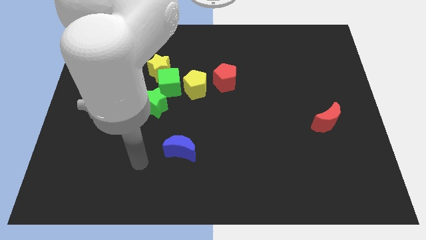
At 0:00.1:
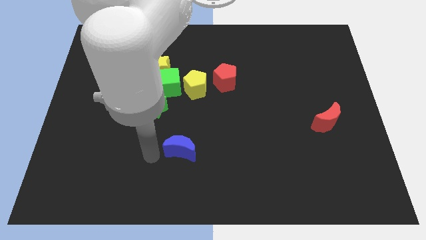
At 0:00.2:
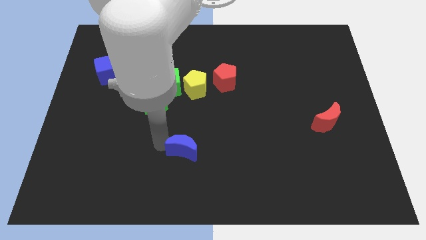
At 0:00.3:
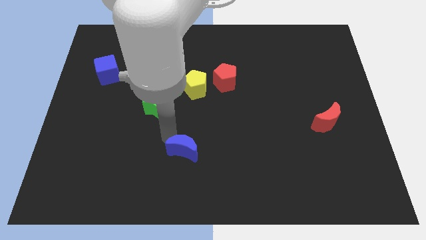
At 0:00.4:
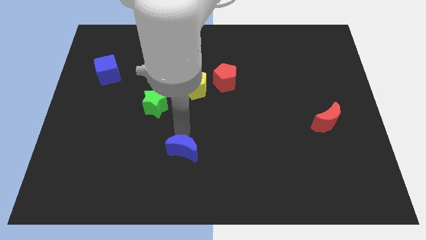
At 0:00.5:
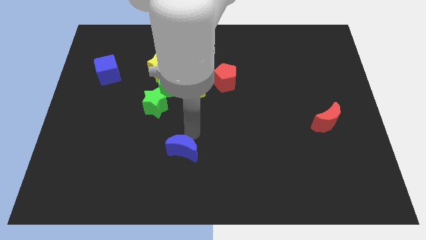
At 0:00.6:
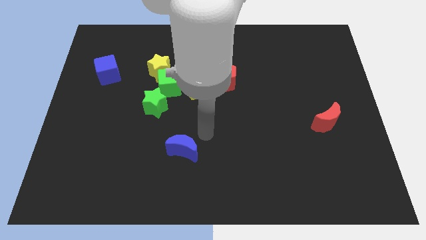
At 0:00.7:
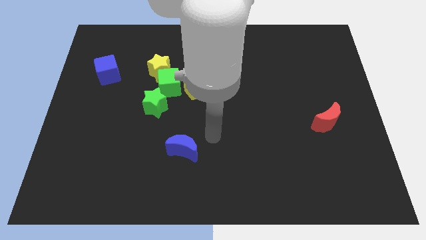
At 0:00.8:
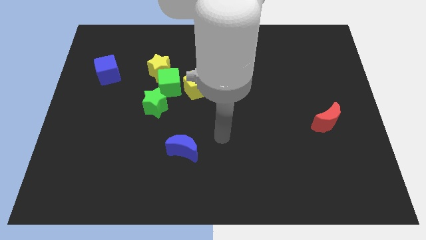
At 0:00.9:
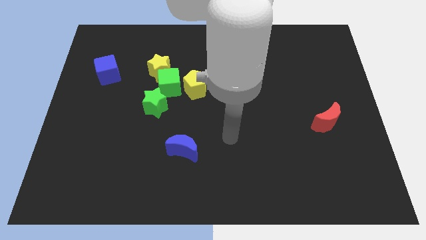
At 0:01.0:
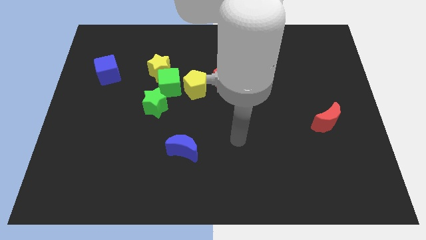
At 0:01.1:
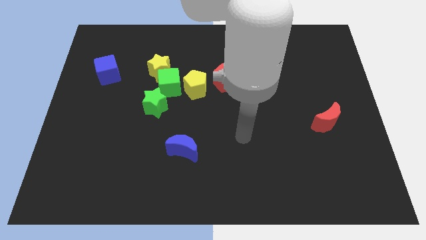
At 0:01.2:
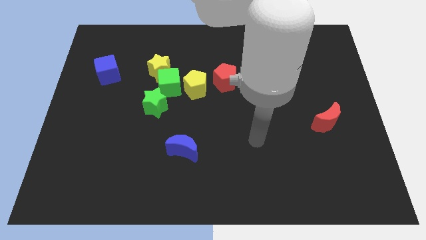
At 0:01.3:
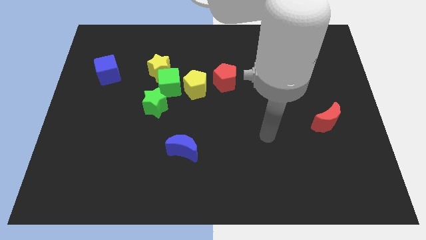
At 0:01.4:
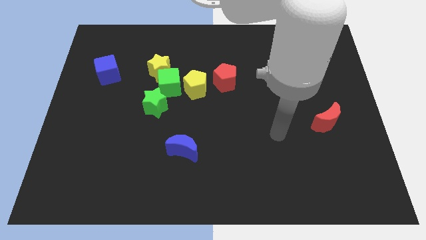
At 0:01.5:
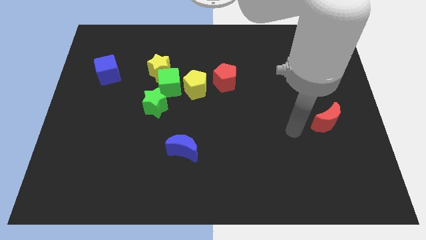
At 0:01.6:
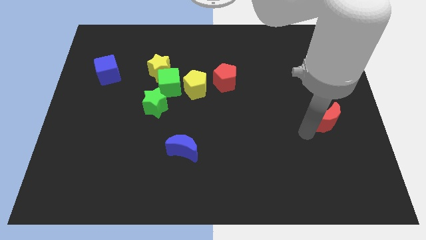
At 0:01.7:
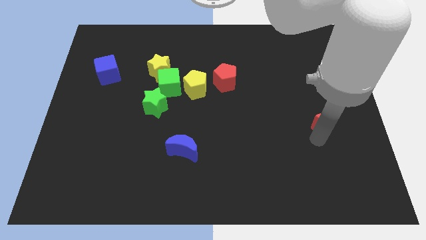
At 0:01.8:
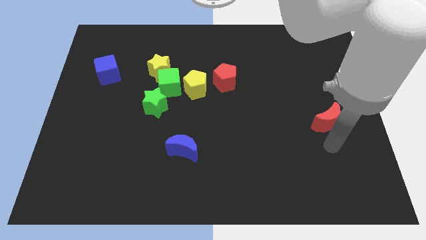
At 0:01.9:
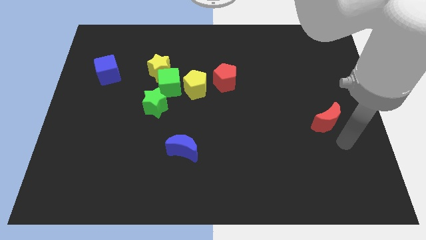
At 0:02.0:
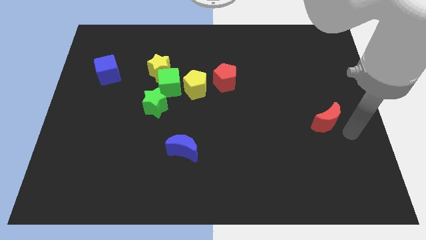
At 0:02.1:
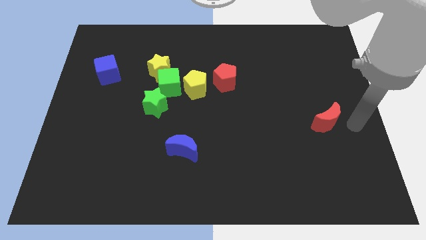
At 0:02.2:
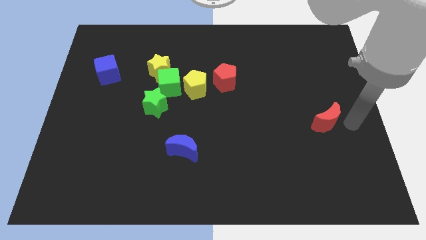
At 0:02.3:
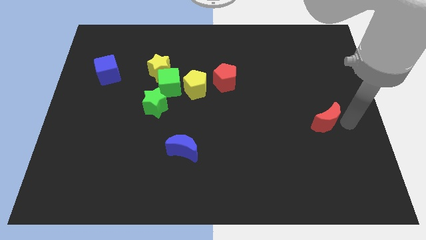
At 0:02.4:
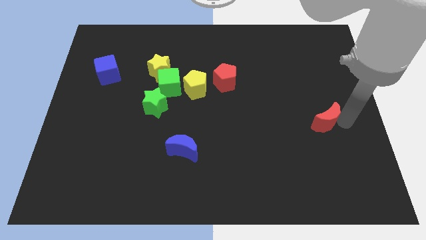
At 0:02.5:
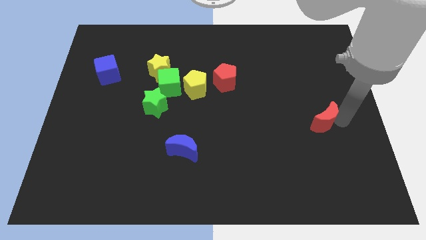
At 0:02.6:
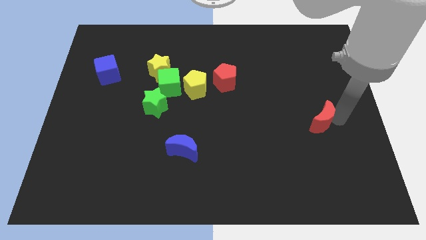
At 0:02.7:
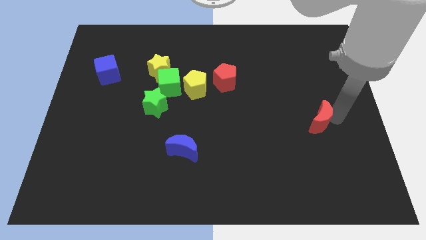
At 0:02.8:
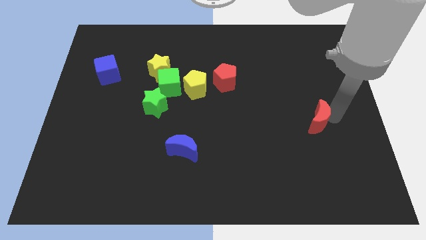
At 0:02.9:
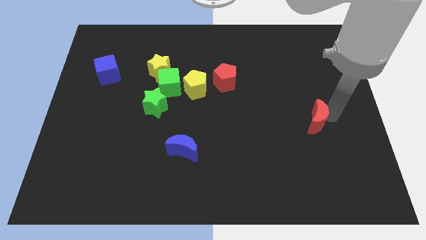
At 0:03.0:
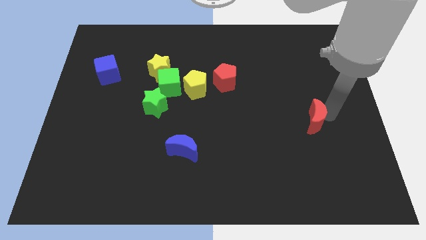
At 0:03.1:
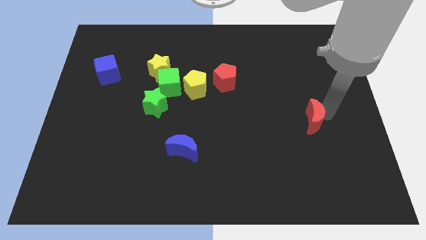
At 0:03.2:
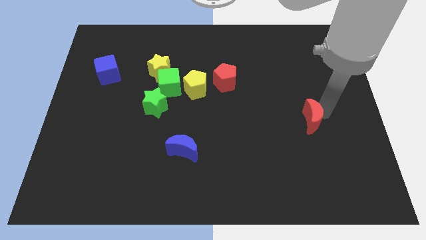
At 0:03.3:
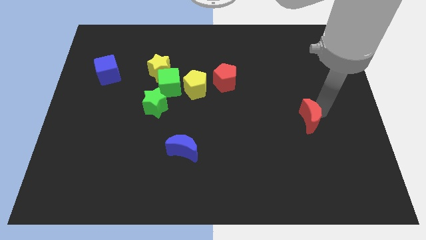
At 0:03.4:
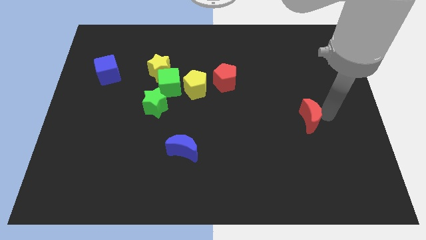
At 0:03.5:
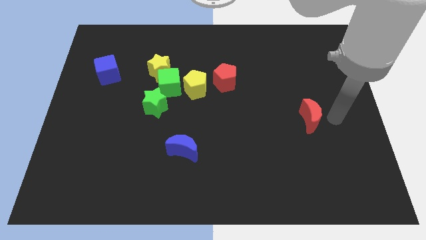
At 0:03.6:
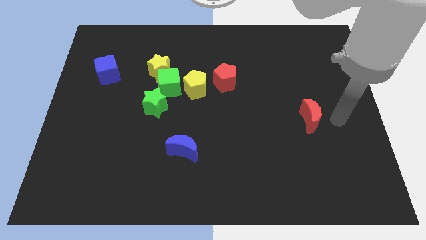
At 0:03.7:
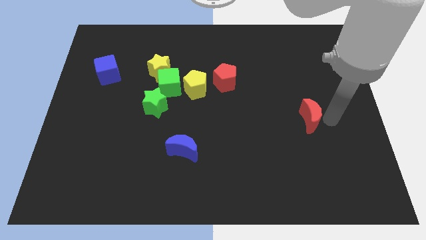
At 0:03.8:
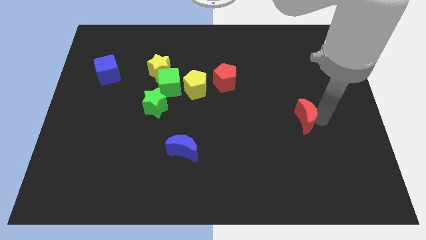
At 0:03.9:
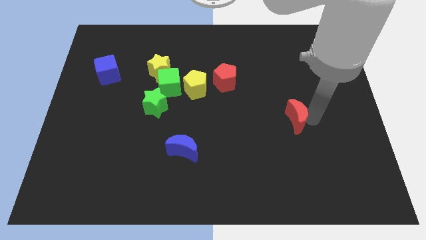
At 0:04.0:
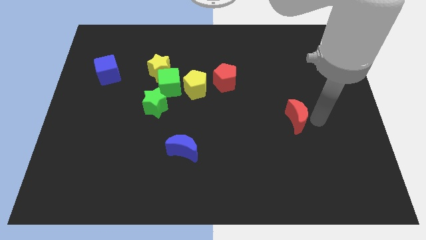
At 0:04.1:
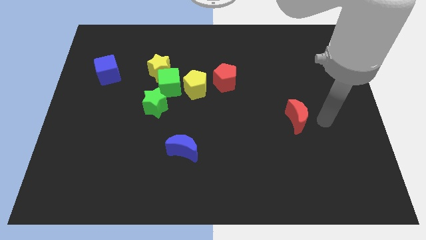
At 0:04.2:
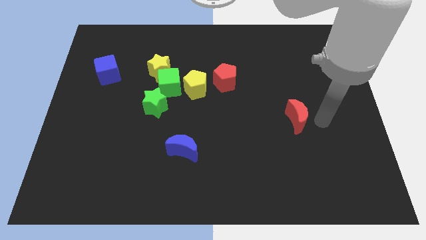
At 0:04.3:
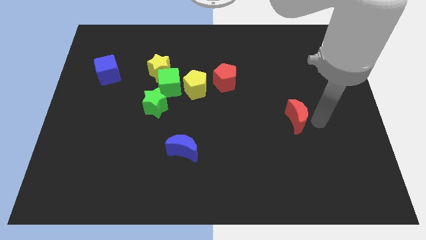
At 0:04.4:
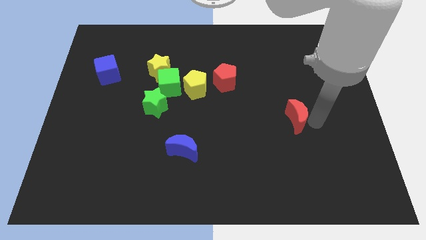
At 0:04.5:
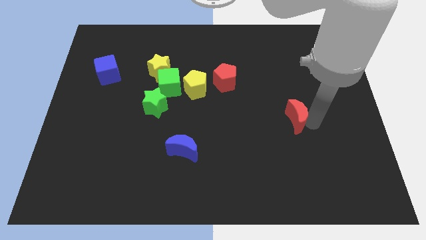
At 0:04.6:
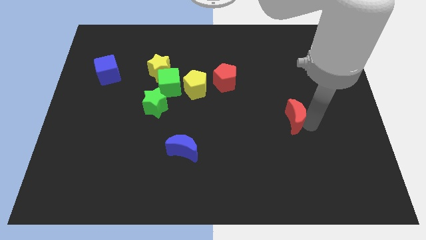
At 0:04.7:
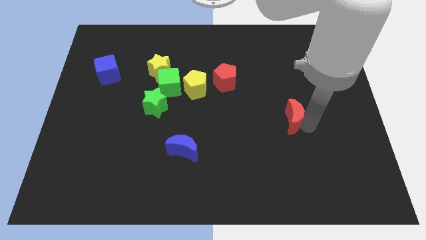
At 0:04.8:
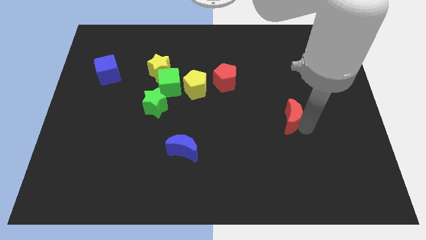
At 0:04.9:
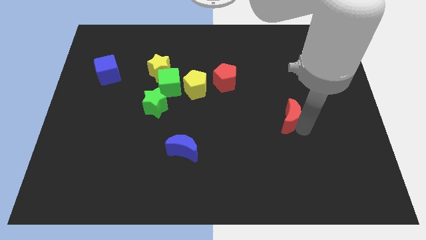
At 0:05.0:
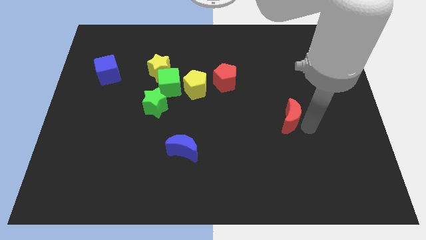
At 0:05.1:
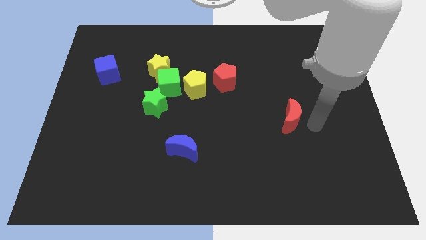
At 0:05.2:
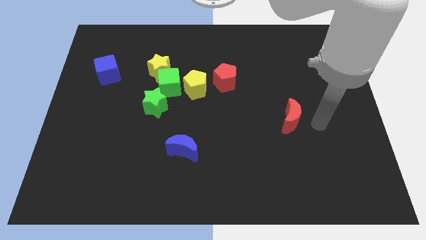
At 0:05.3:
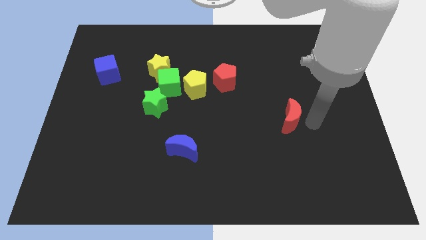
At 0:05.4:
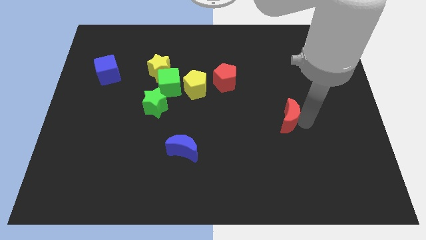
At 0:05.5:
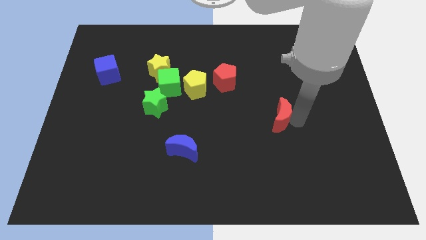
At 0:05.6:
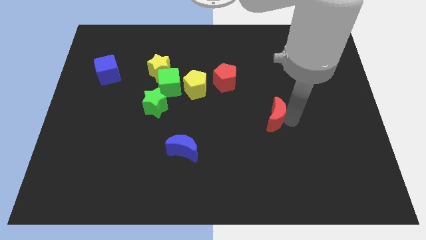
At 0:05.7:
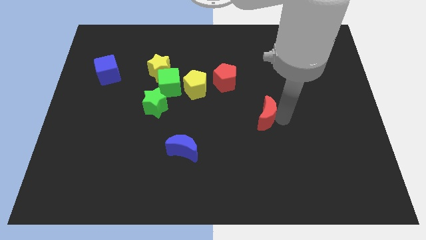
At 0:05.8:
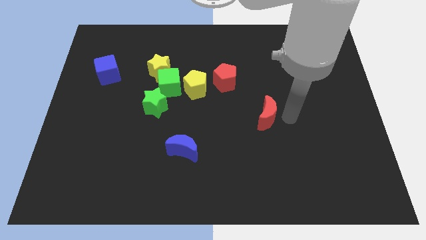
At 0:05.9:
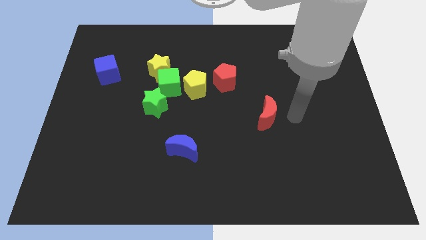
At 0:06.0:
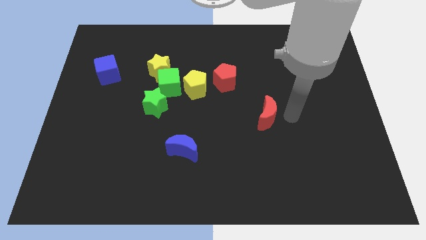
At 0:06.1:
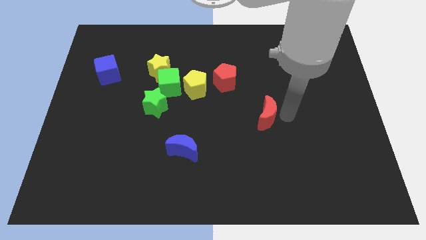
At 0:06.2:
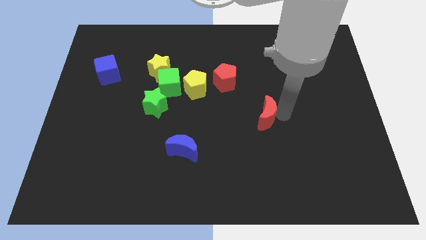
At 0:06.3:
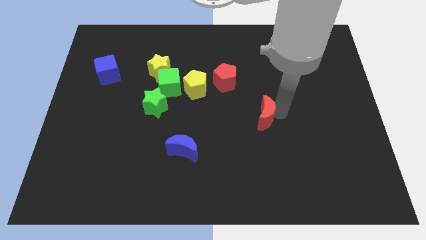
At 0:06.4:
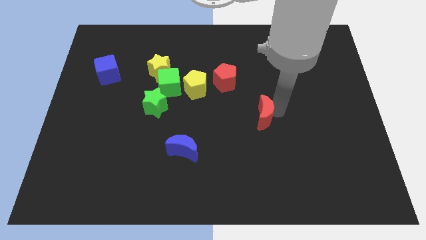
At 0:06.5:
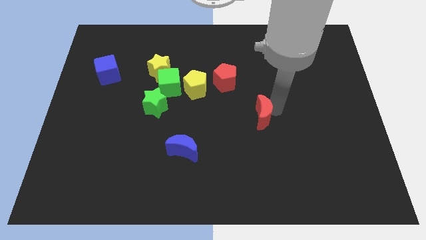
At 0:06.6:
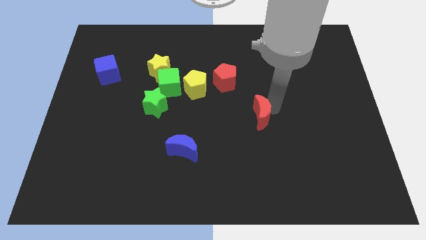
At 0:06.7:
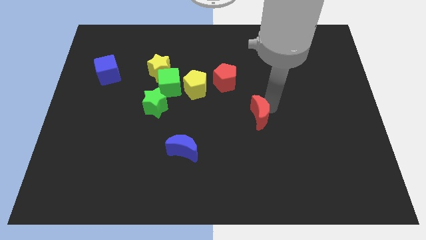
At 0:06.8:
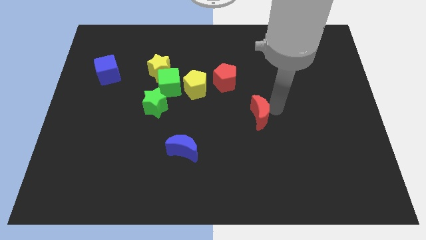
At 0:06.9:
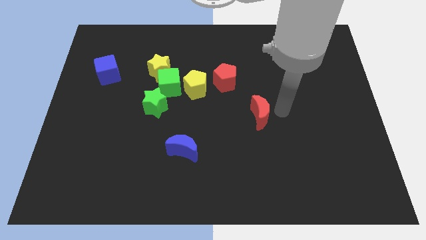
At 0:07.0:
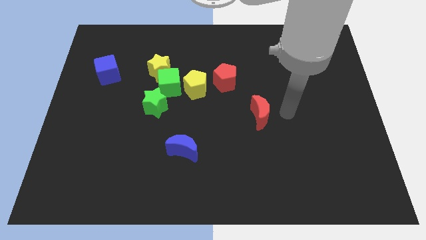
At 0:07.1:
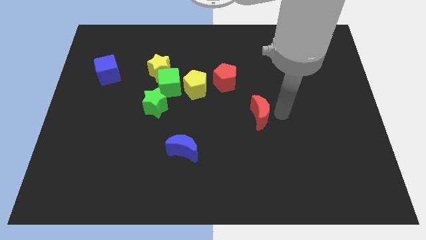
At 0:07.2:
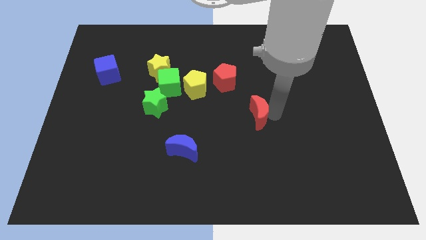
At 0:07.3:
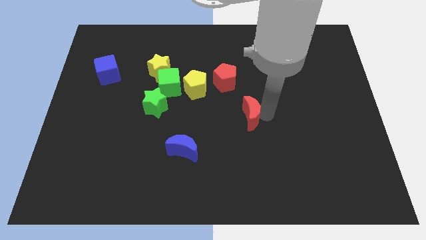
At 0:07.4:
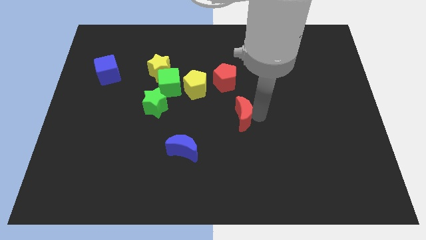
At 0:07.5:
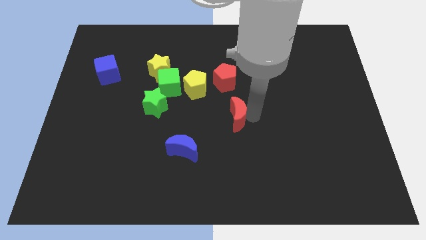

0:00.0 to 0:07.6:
push the red moon to the left

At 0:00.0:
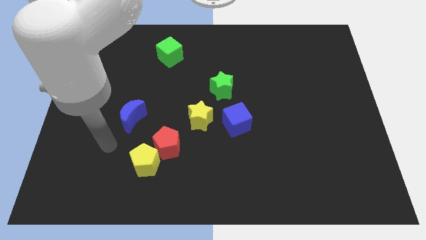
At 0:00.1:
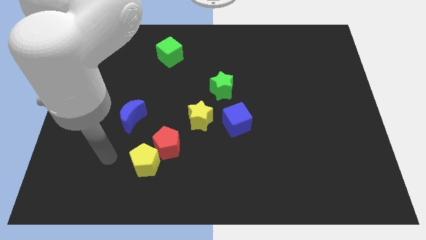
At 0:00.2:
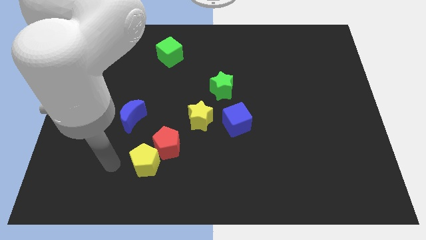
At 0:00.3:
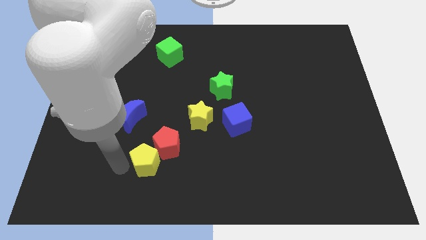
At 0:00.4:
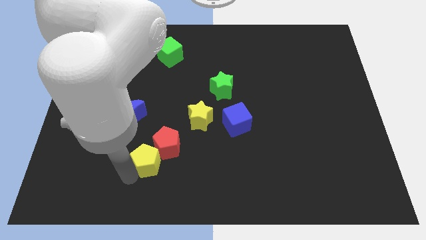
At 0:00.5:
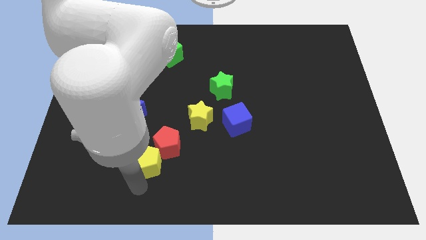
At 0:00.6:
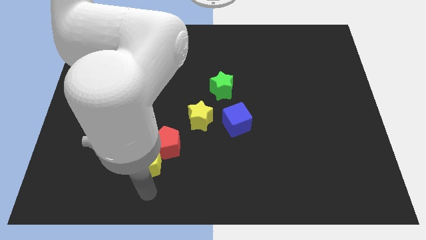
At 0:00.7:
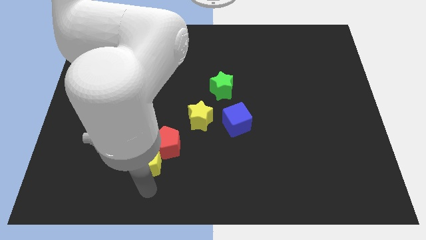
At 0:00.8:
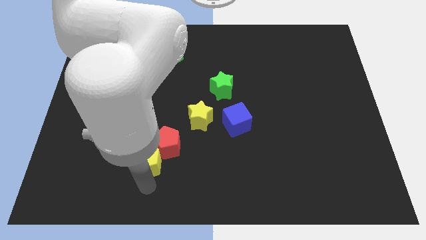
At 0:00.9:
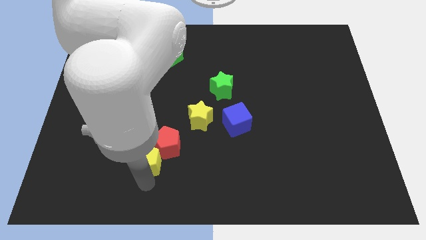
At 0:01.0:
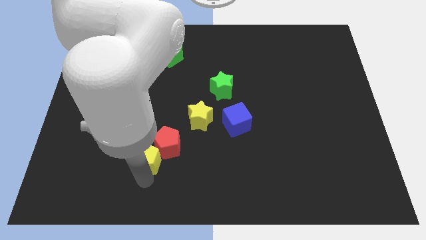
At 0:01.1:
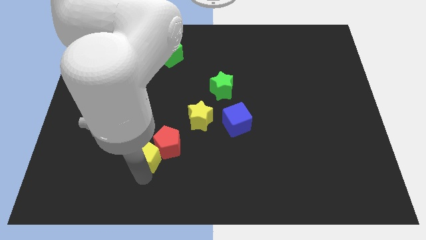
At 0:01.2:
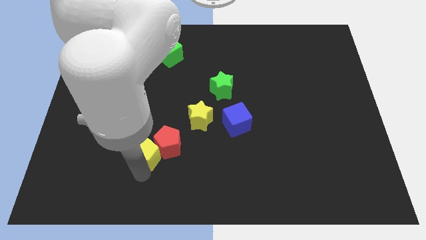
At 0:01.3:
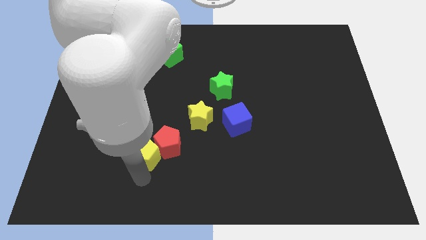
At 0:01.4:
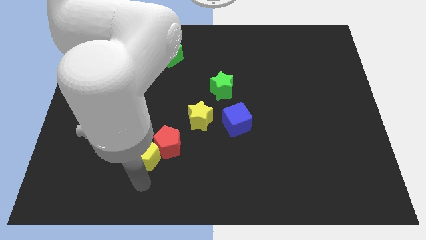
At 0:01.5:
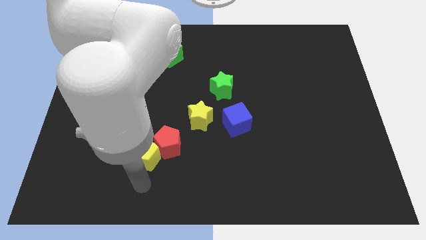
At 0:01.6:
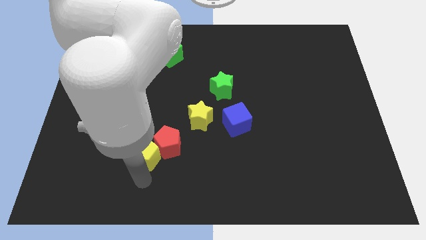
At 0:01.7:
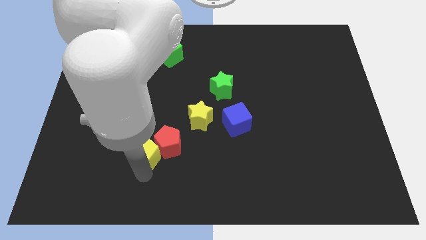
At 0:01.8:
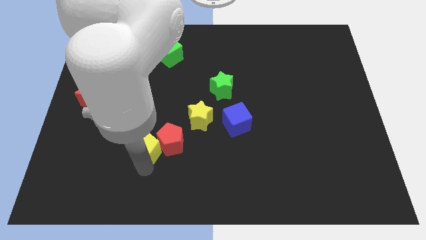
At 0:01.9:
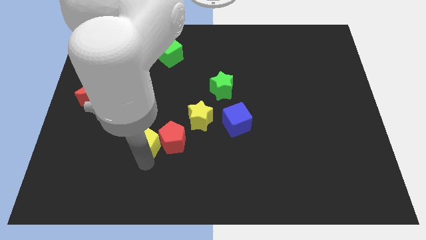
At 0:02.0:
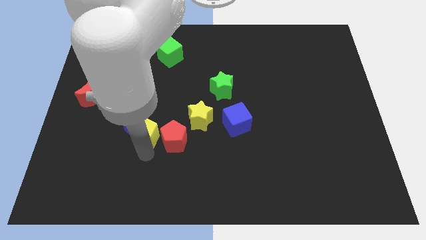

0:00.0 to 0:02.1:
slide the yellow pentagon up a little
